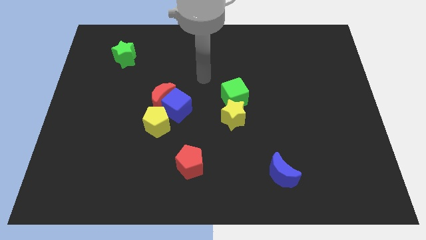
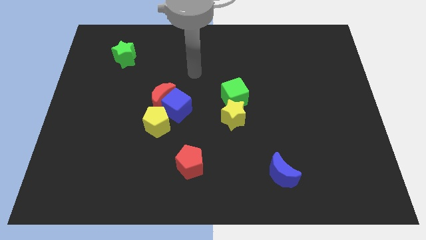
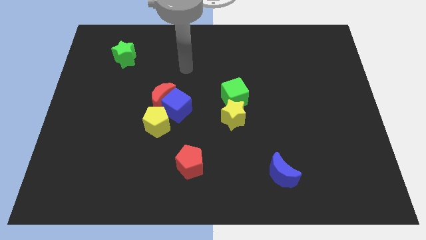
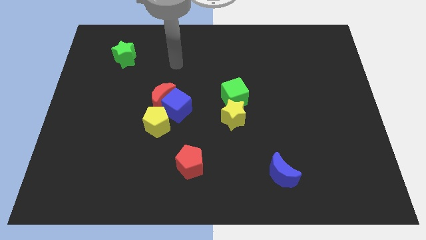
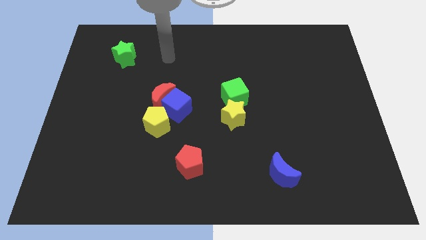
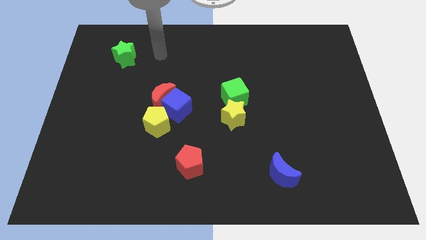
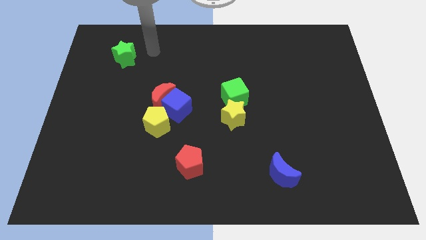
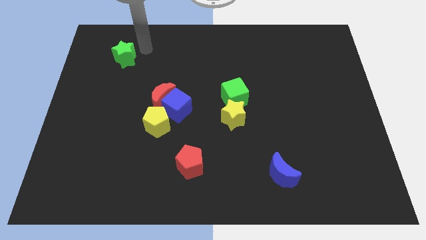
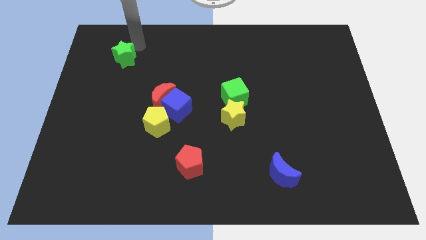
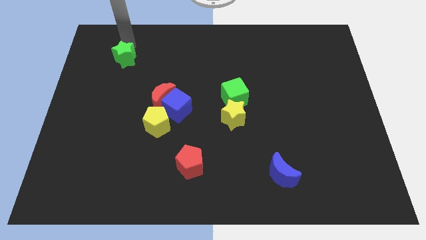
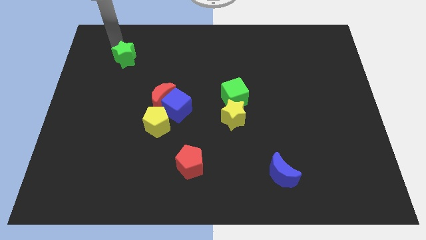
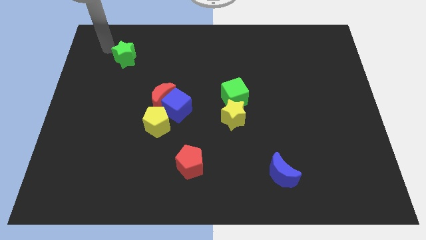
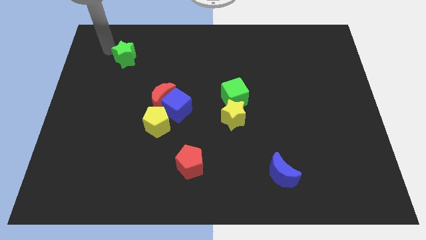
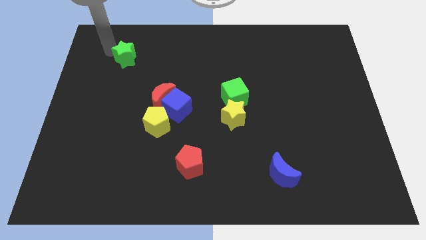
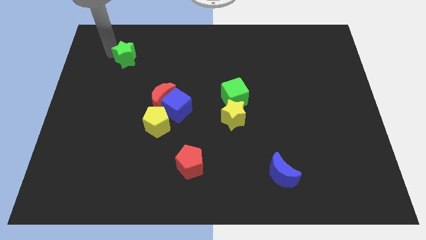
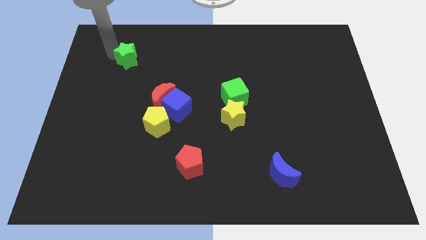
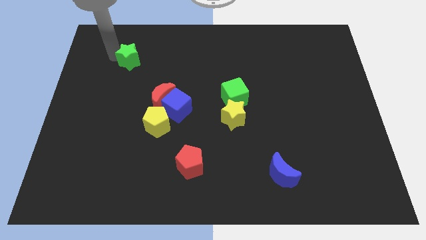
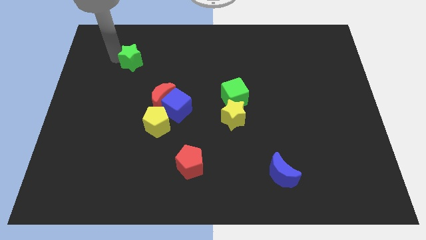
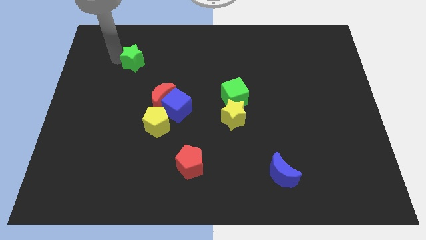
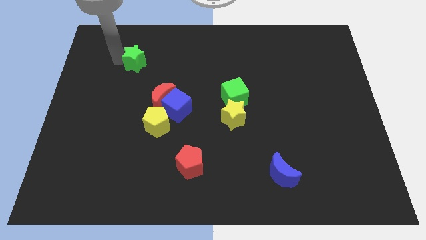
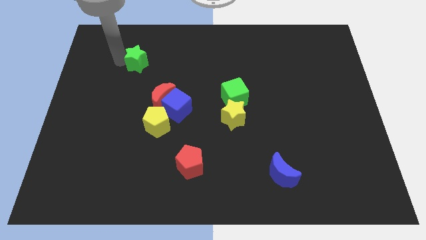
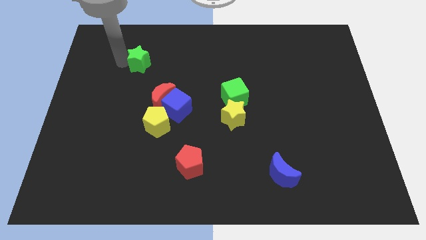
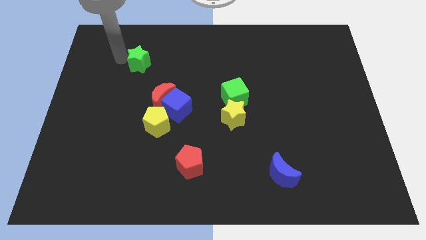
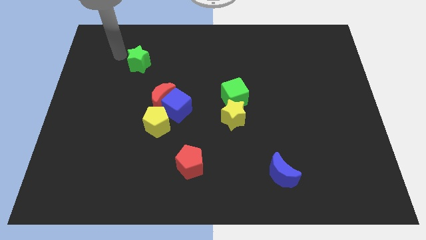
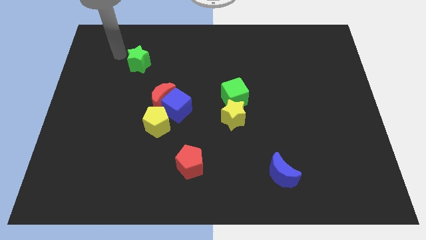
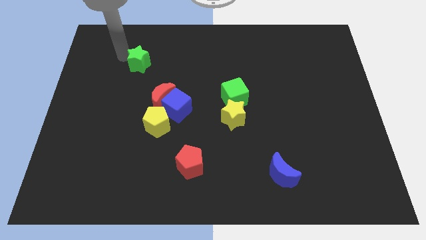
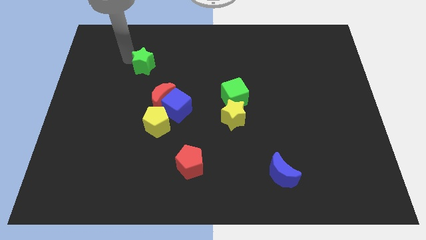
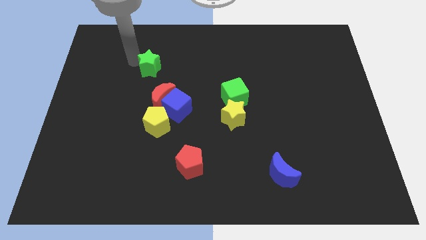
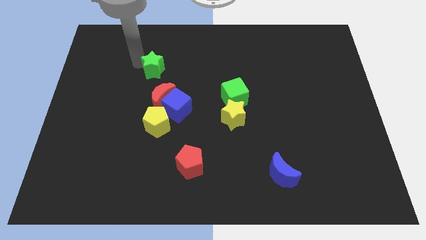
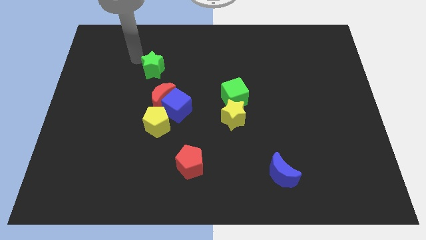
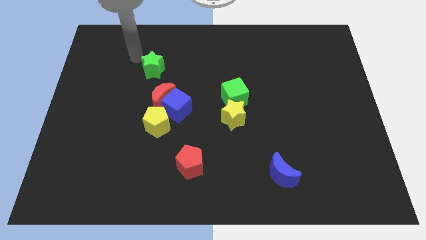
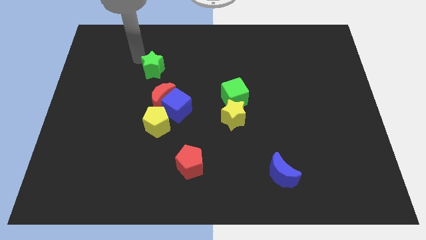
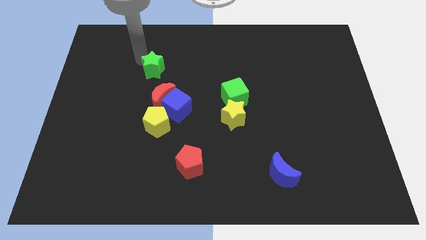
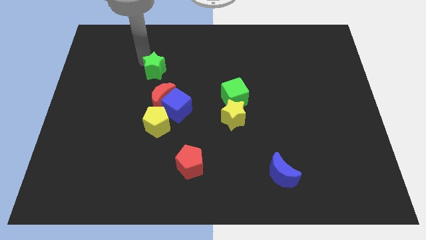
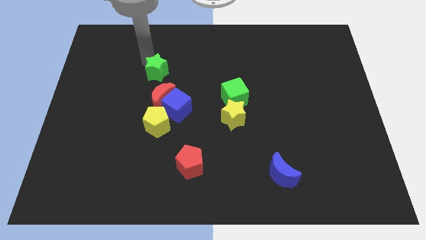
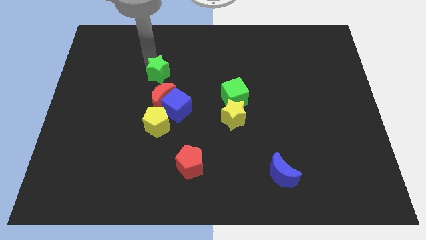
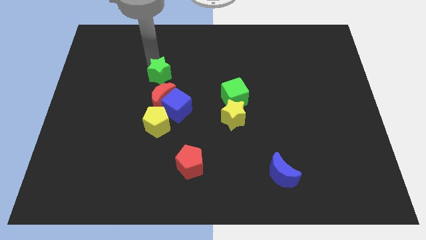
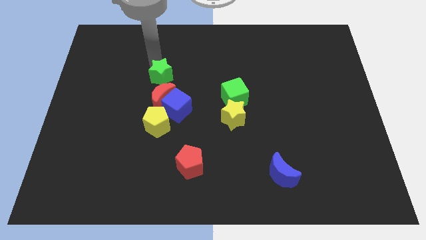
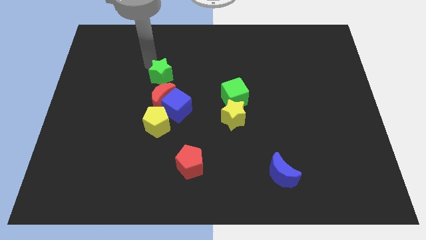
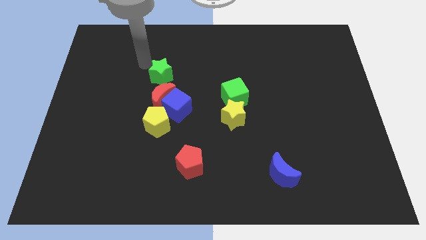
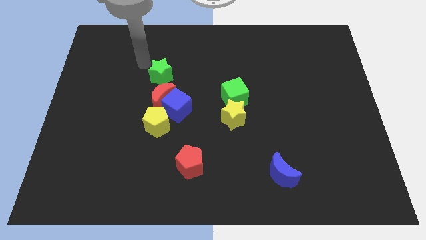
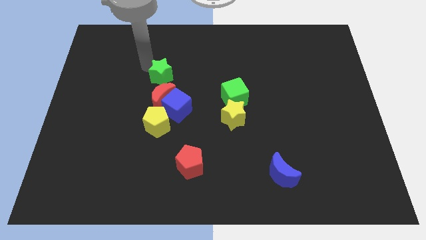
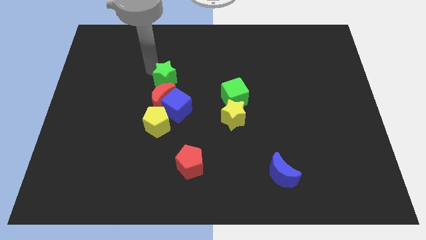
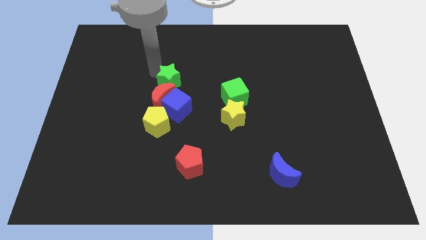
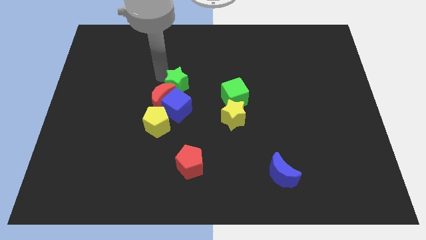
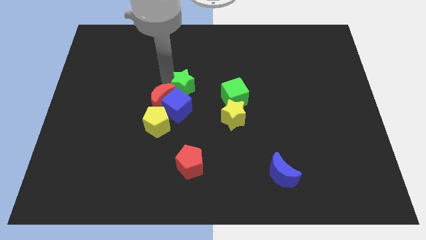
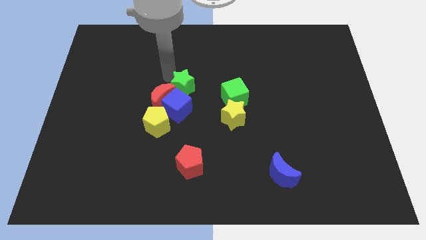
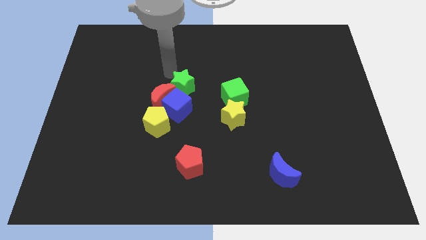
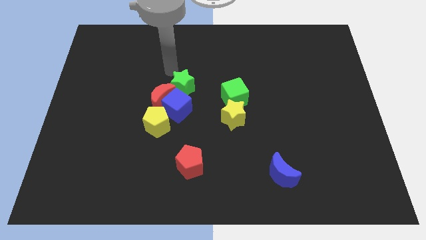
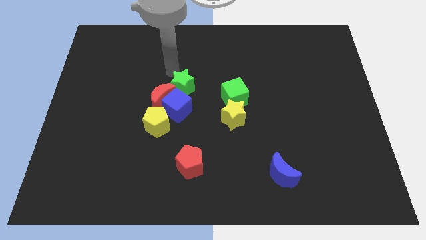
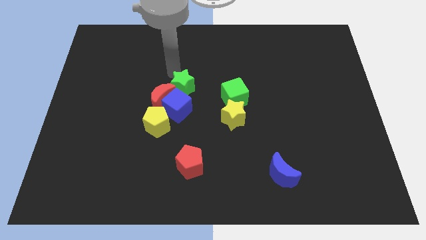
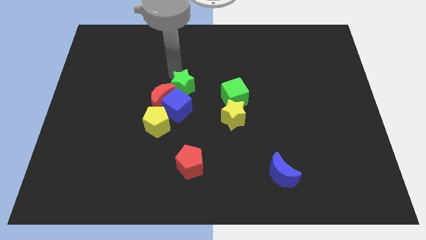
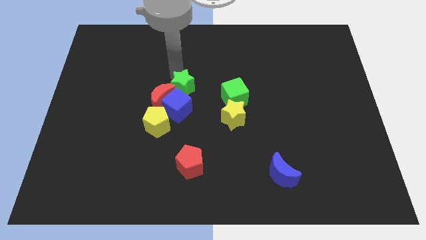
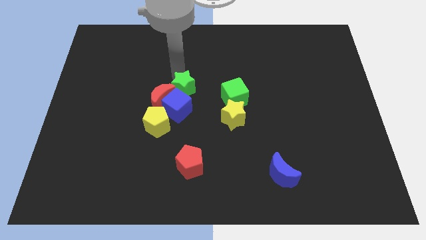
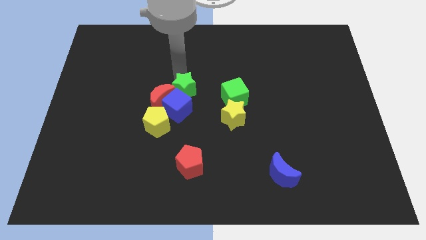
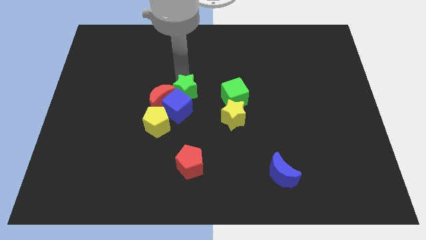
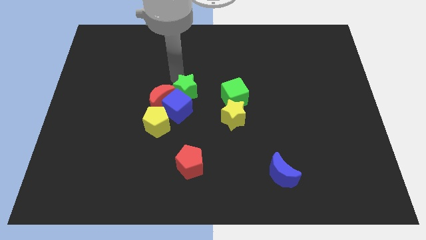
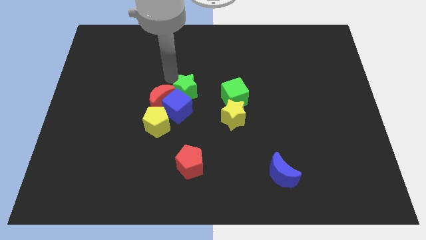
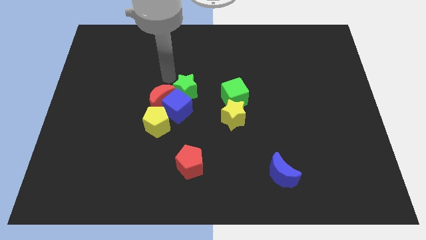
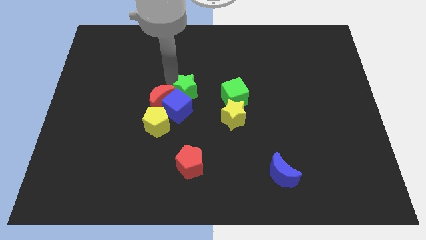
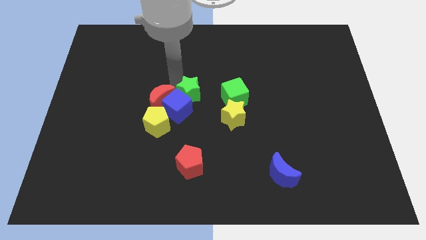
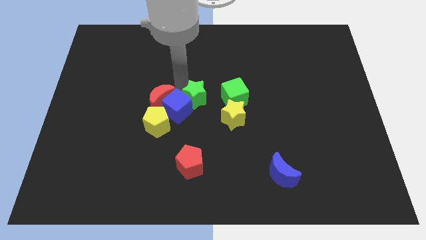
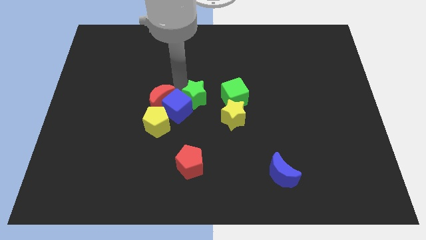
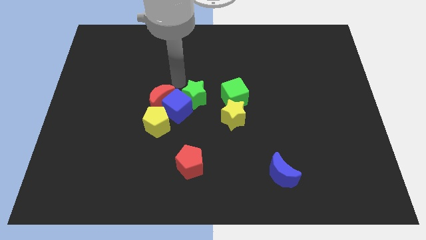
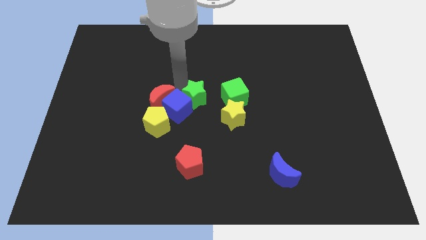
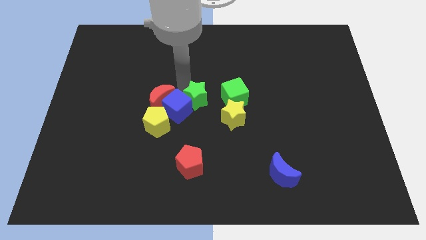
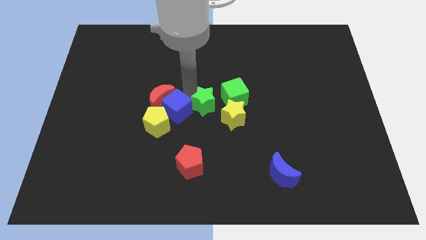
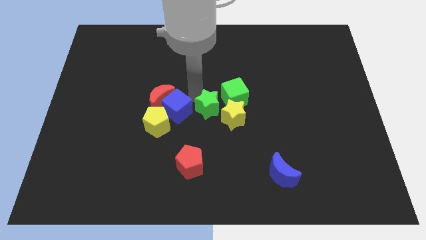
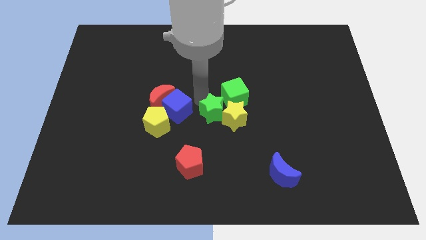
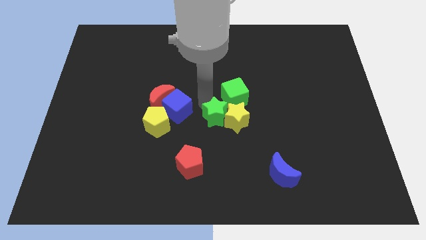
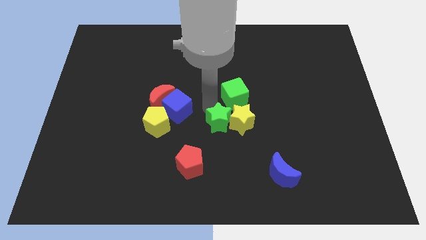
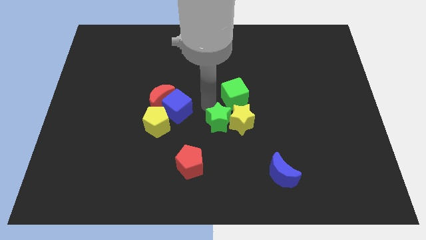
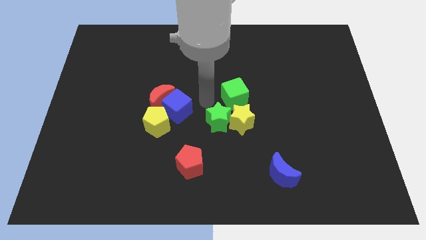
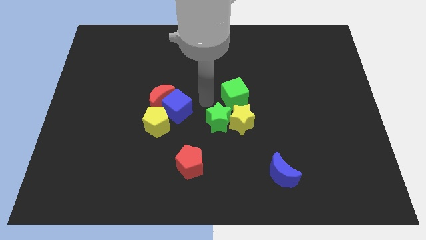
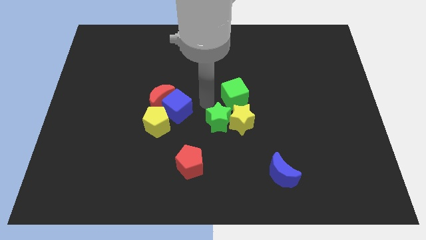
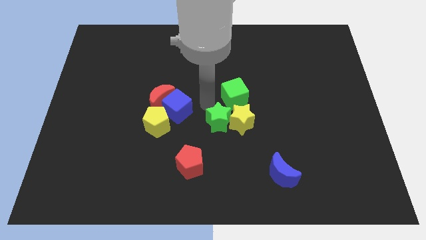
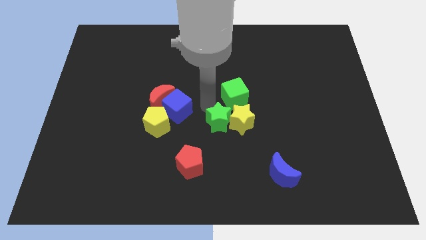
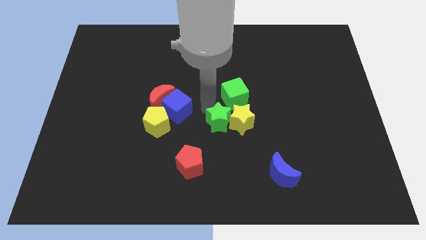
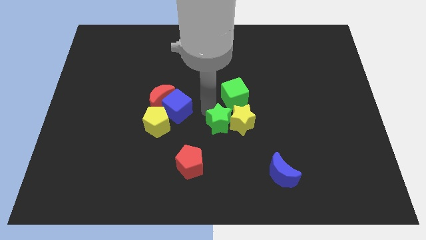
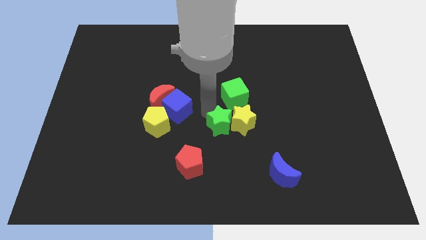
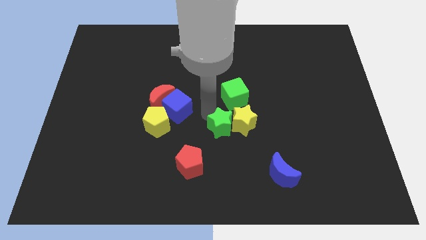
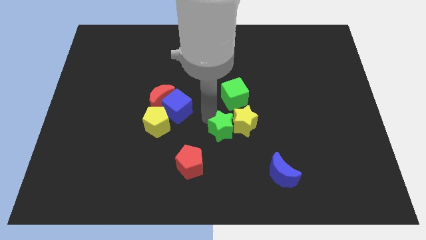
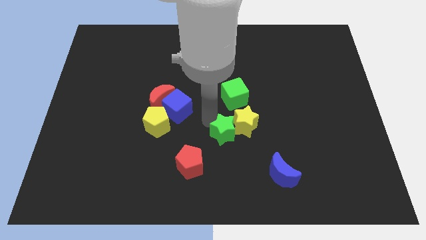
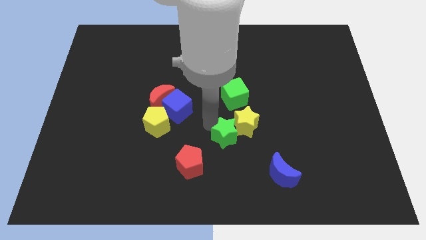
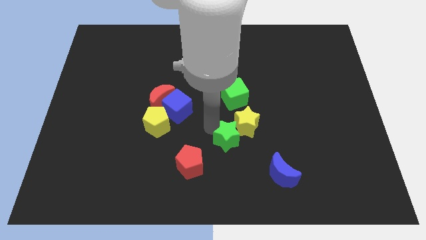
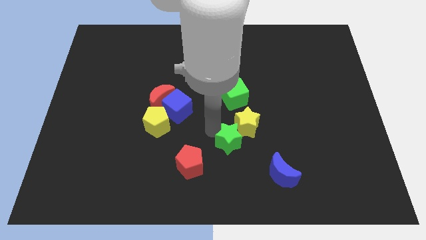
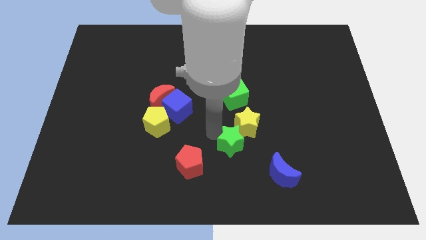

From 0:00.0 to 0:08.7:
move the green star to the top left of the blue moon
